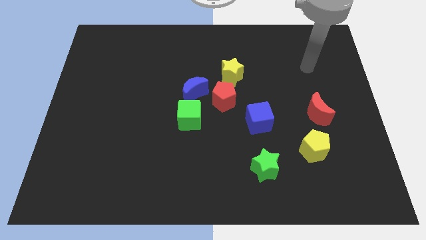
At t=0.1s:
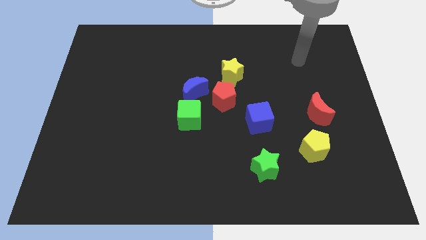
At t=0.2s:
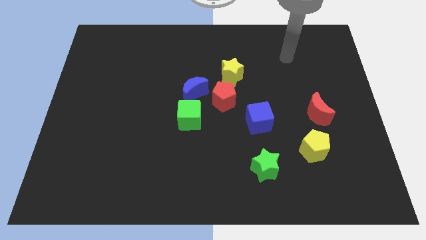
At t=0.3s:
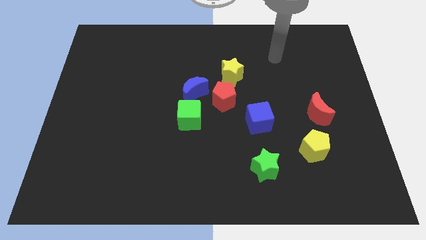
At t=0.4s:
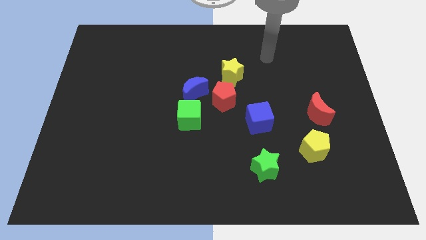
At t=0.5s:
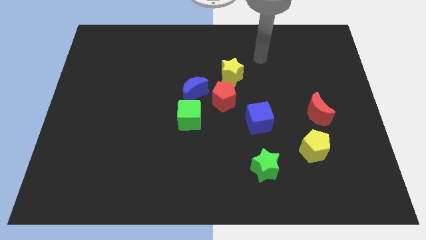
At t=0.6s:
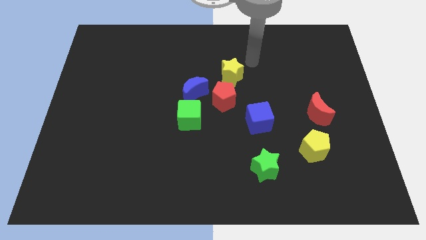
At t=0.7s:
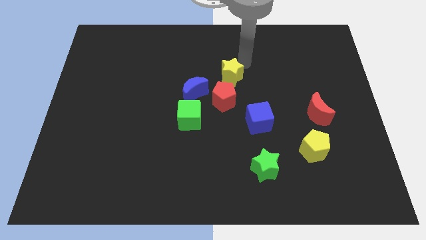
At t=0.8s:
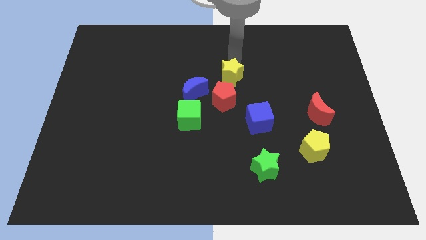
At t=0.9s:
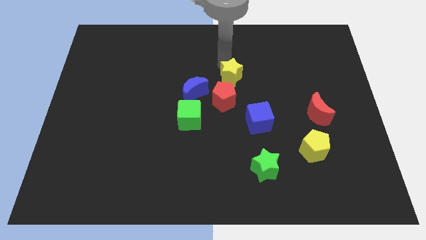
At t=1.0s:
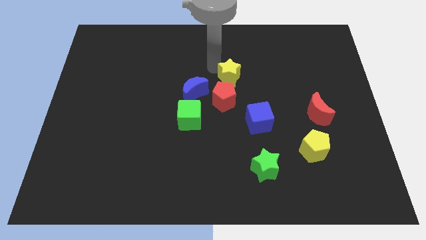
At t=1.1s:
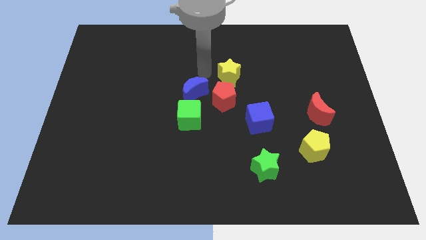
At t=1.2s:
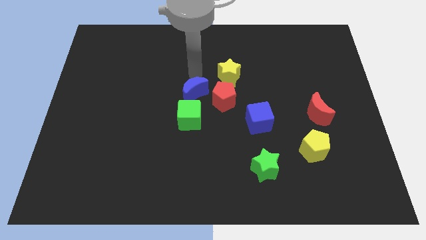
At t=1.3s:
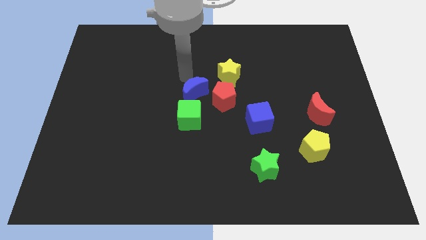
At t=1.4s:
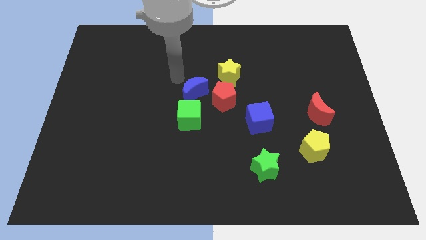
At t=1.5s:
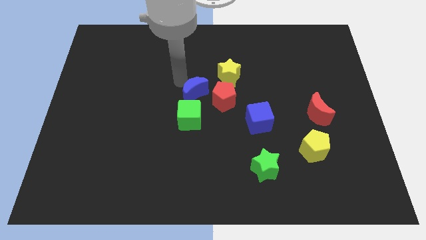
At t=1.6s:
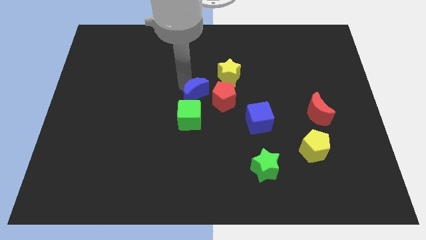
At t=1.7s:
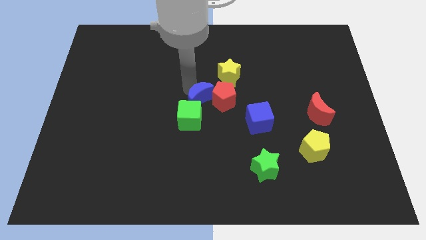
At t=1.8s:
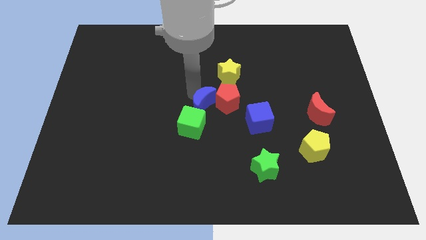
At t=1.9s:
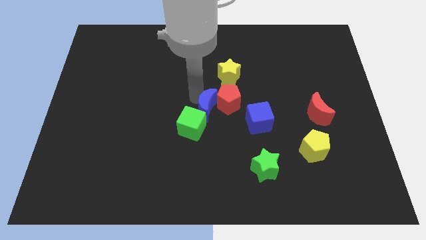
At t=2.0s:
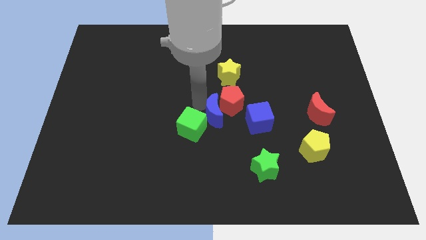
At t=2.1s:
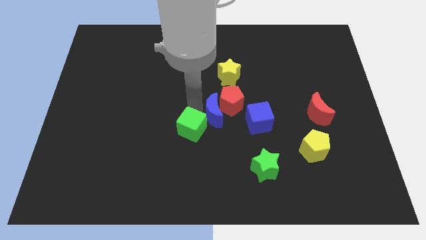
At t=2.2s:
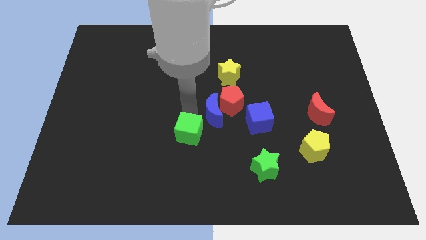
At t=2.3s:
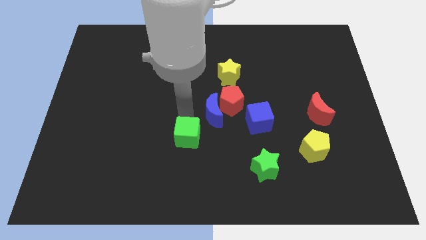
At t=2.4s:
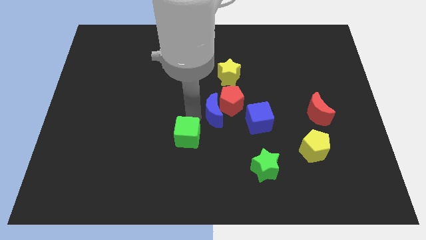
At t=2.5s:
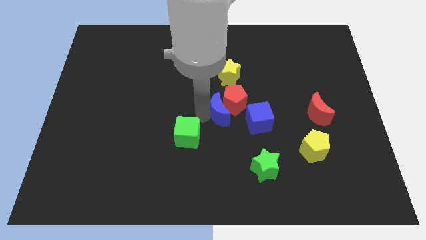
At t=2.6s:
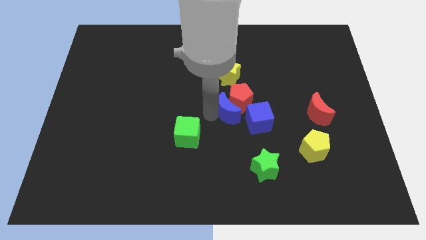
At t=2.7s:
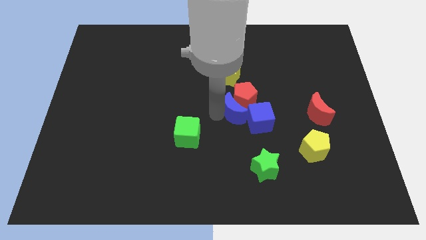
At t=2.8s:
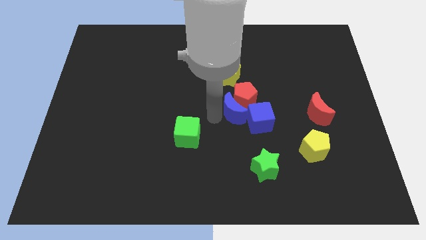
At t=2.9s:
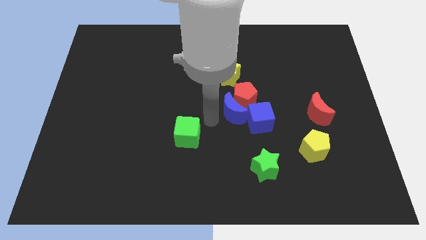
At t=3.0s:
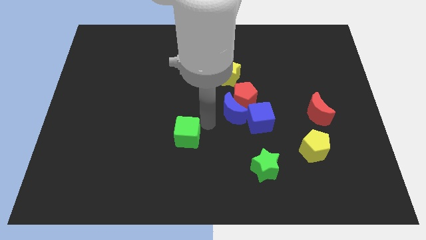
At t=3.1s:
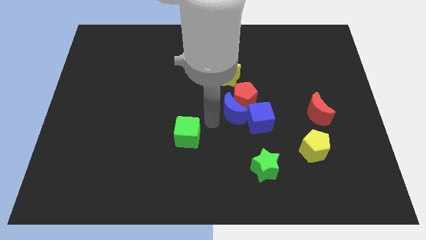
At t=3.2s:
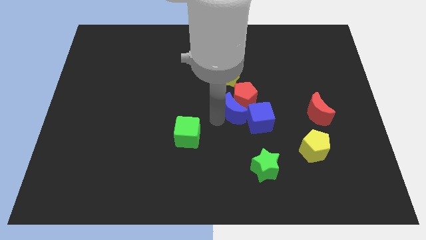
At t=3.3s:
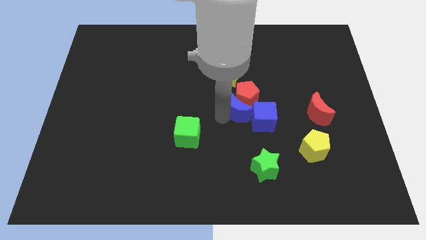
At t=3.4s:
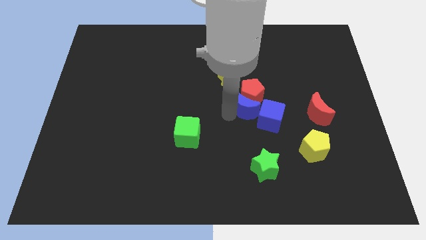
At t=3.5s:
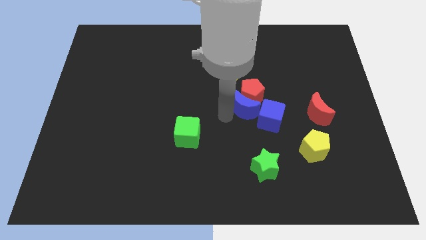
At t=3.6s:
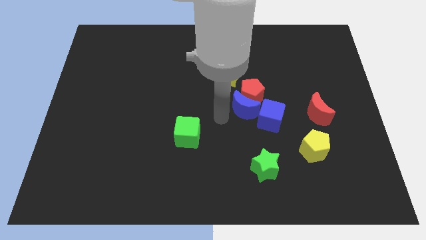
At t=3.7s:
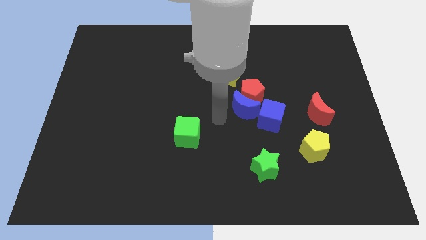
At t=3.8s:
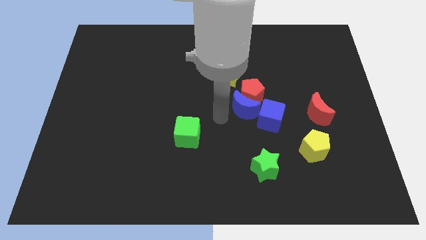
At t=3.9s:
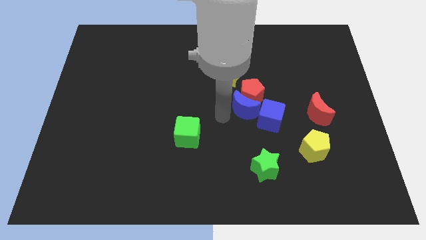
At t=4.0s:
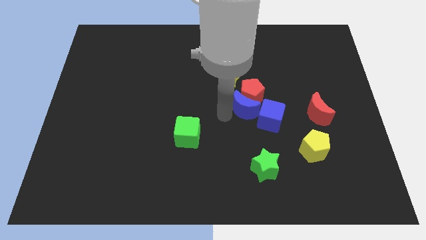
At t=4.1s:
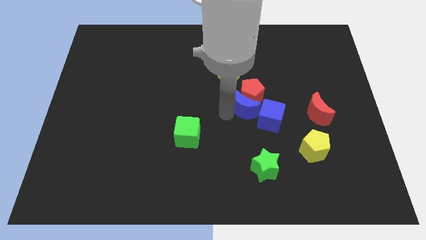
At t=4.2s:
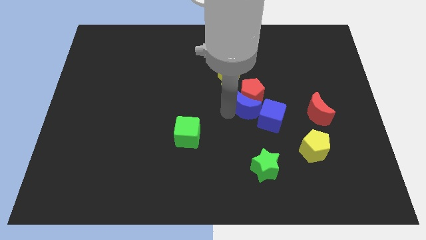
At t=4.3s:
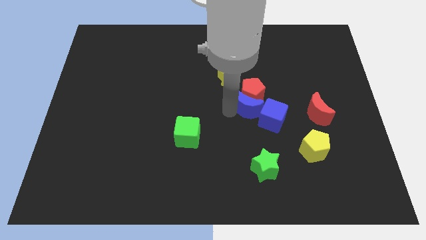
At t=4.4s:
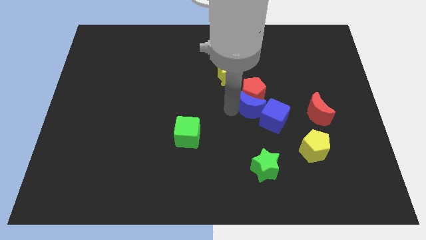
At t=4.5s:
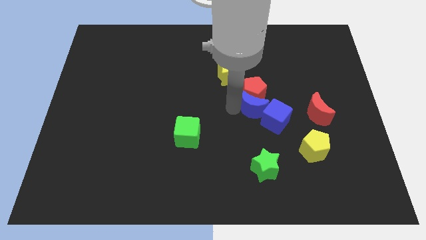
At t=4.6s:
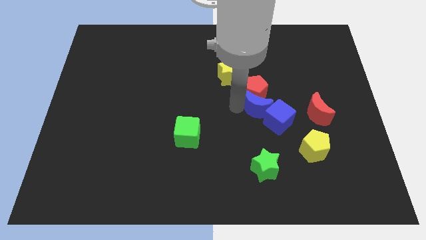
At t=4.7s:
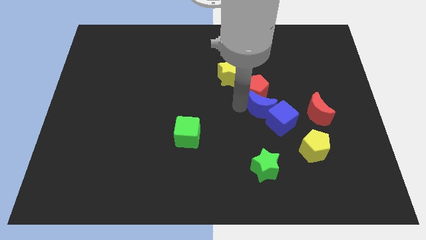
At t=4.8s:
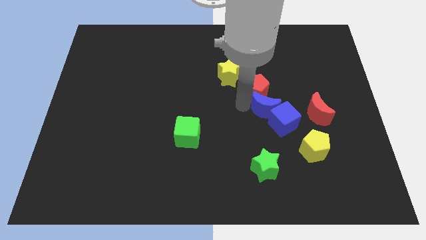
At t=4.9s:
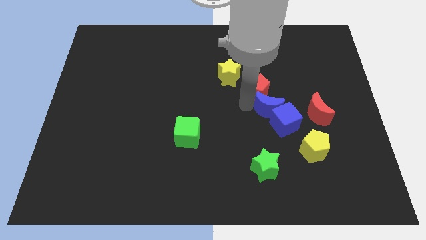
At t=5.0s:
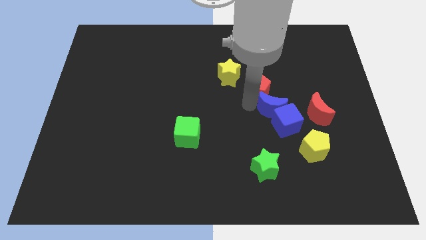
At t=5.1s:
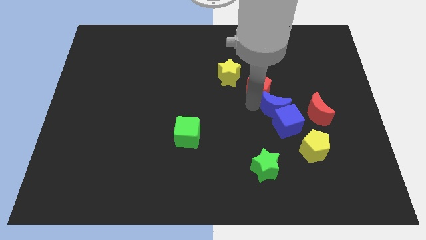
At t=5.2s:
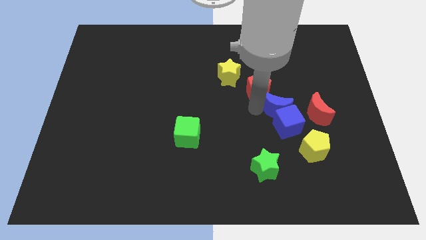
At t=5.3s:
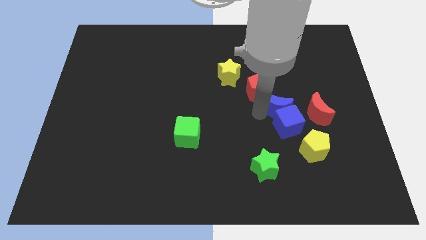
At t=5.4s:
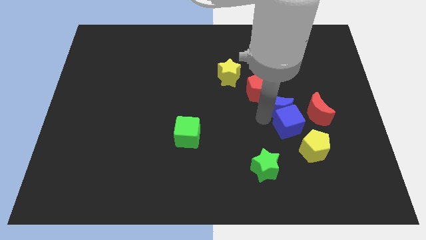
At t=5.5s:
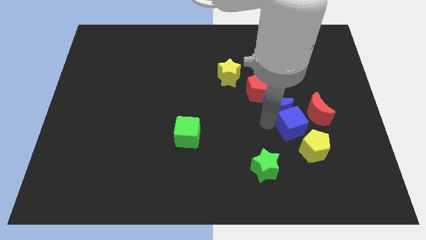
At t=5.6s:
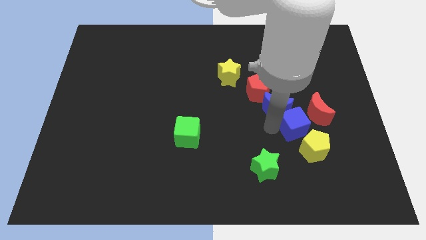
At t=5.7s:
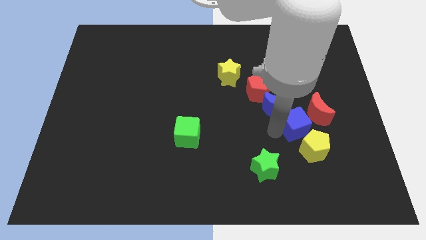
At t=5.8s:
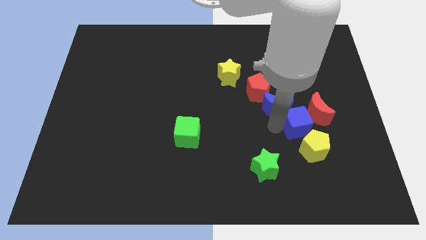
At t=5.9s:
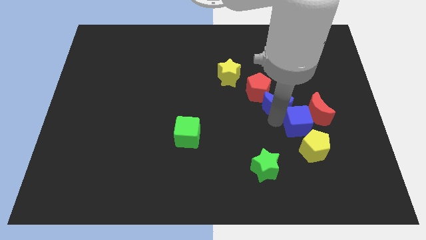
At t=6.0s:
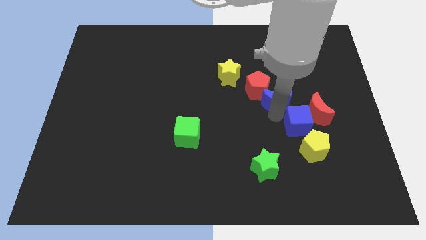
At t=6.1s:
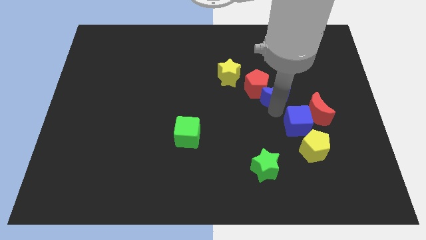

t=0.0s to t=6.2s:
slide the blue moon to the right

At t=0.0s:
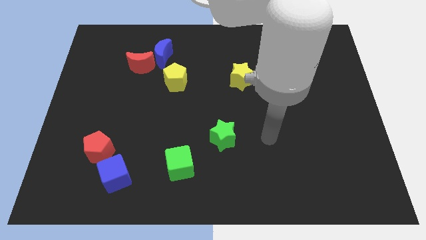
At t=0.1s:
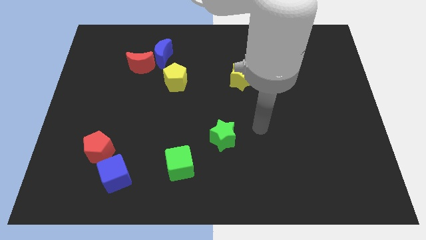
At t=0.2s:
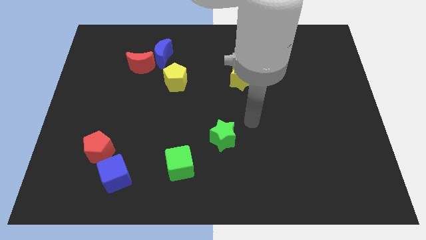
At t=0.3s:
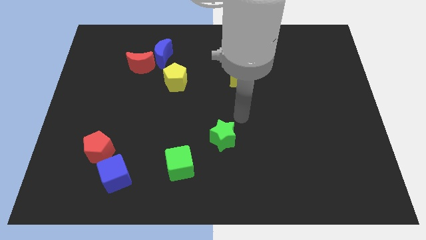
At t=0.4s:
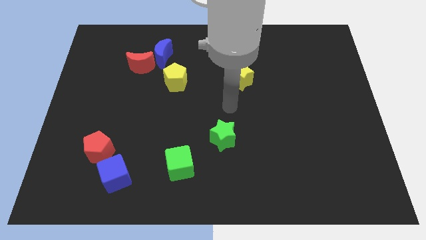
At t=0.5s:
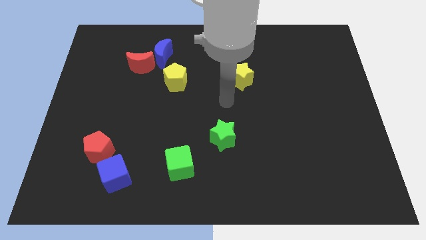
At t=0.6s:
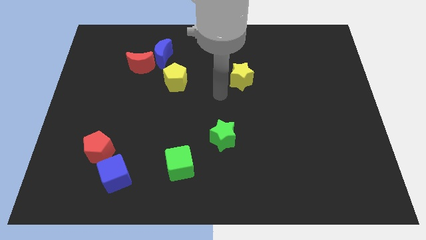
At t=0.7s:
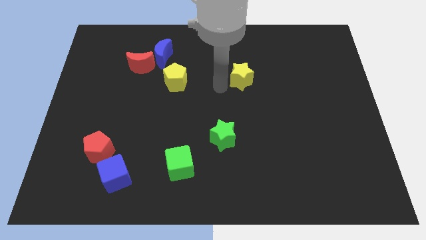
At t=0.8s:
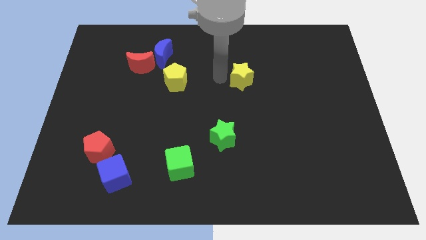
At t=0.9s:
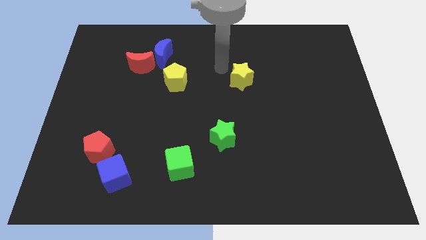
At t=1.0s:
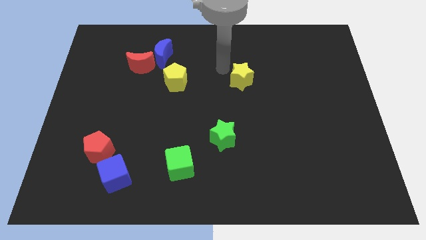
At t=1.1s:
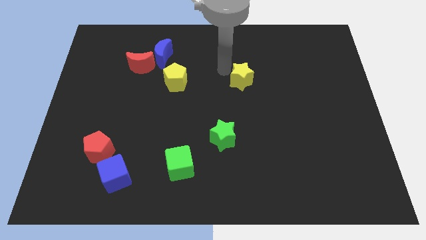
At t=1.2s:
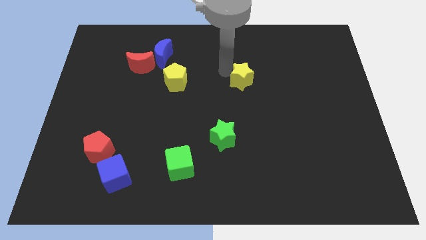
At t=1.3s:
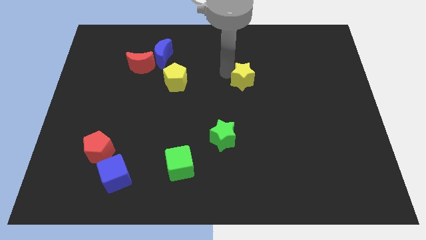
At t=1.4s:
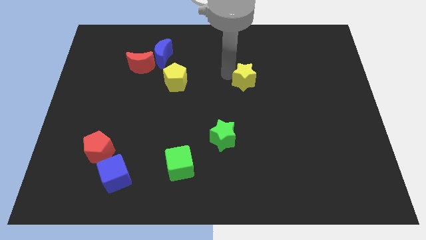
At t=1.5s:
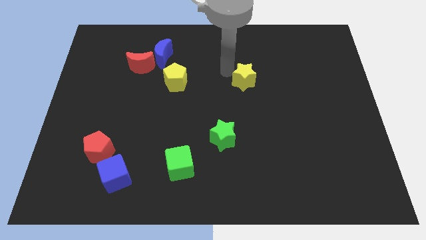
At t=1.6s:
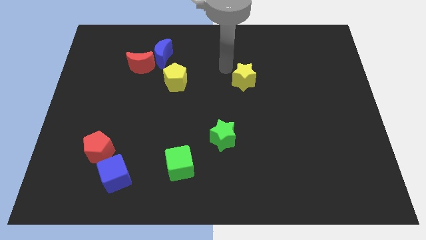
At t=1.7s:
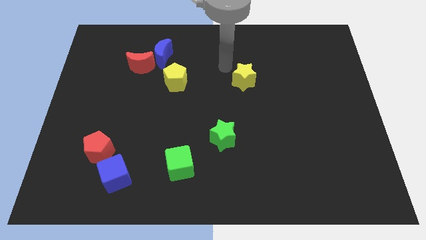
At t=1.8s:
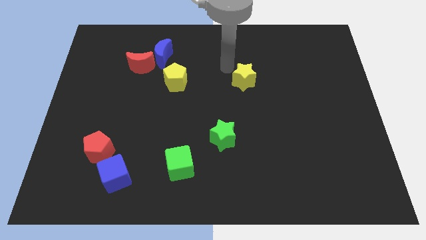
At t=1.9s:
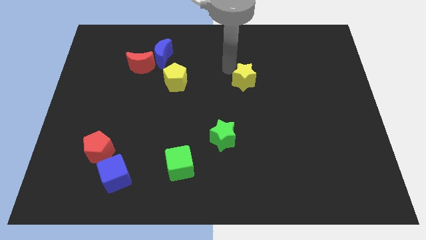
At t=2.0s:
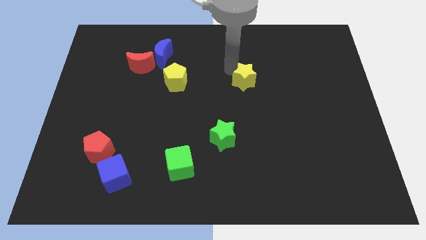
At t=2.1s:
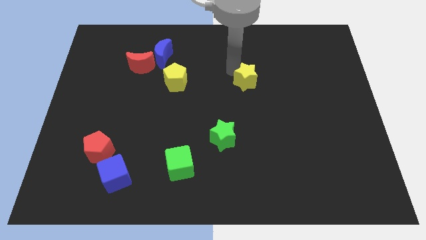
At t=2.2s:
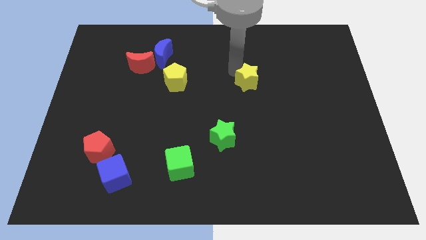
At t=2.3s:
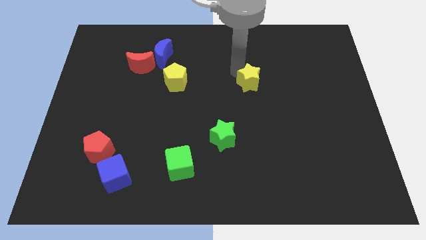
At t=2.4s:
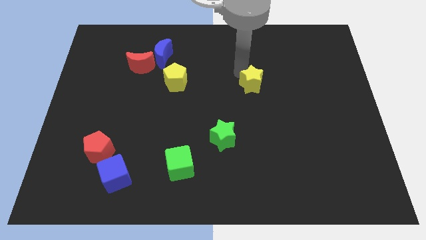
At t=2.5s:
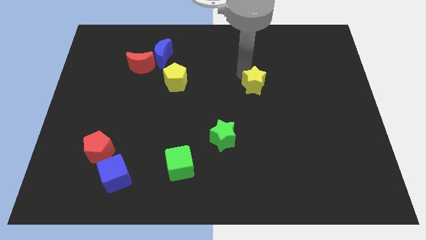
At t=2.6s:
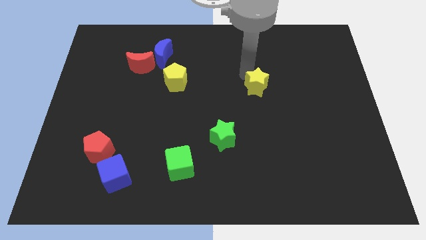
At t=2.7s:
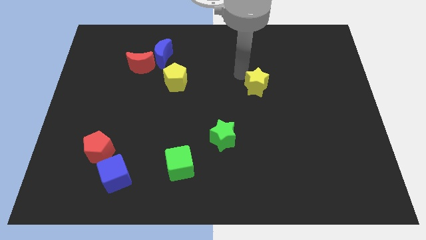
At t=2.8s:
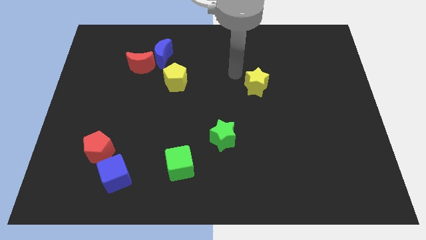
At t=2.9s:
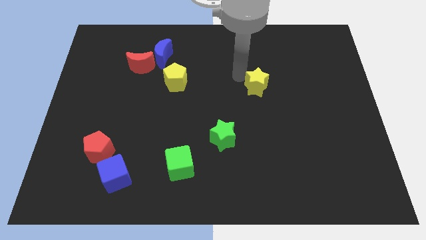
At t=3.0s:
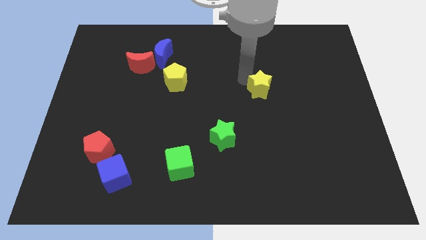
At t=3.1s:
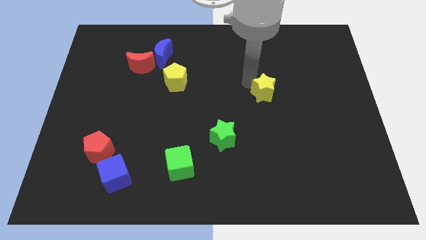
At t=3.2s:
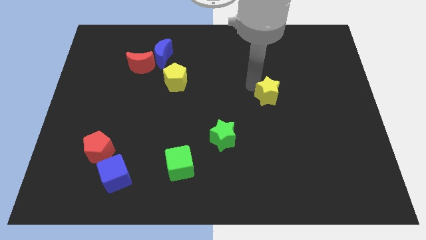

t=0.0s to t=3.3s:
push the yellow star somewhat down and right
